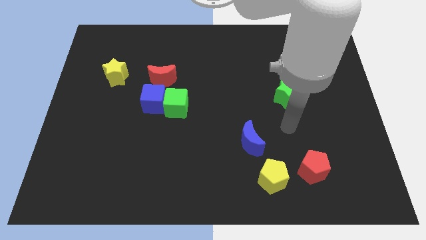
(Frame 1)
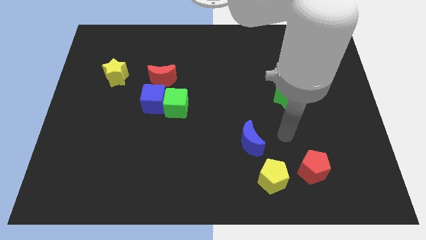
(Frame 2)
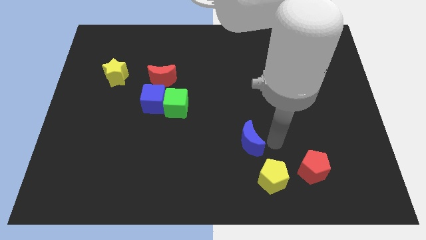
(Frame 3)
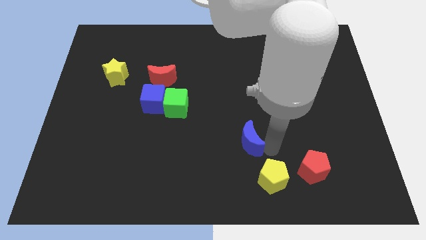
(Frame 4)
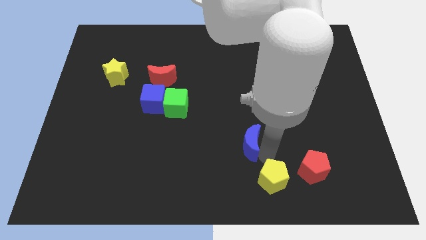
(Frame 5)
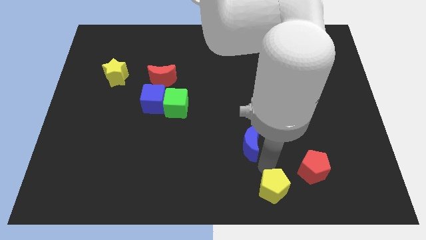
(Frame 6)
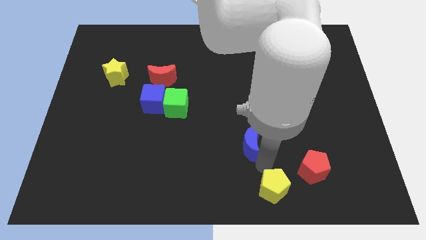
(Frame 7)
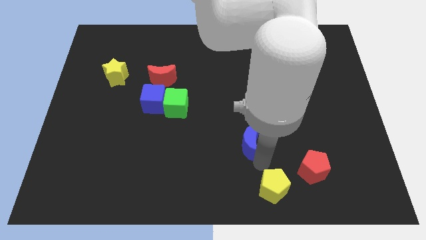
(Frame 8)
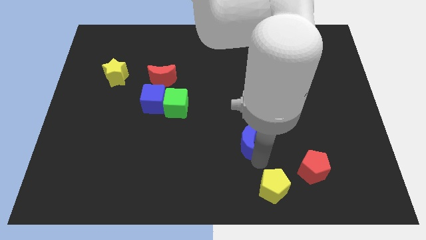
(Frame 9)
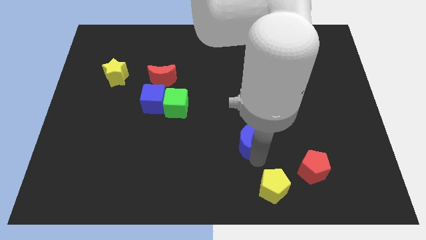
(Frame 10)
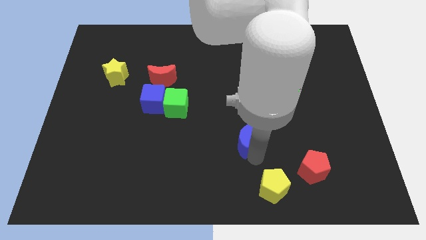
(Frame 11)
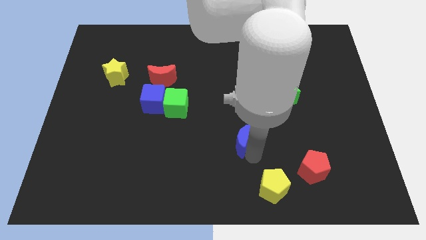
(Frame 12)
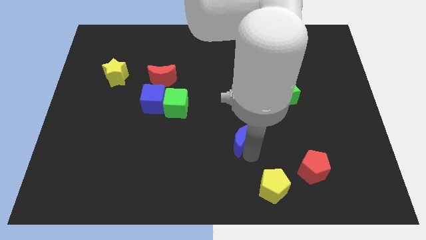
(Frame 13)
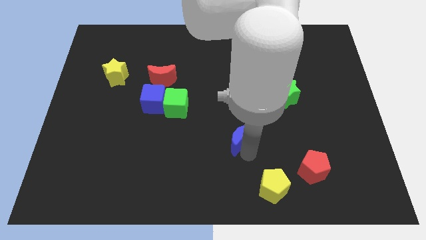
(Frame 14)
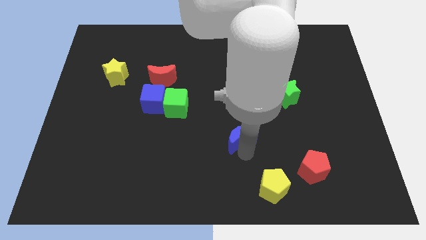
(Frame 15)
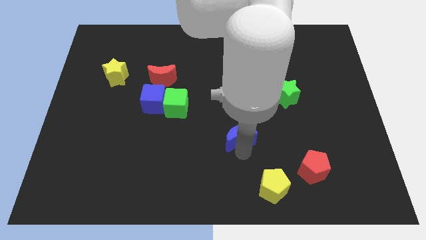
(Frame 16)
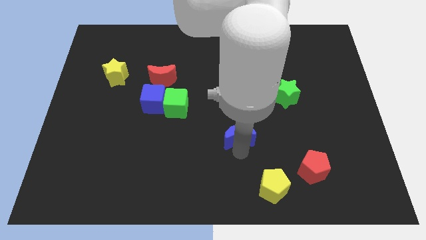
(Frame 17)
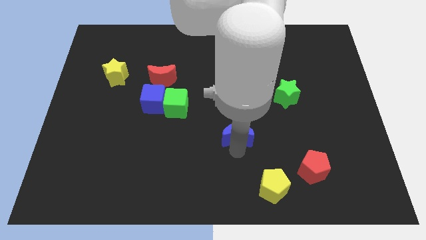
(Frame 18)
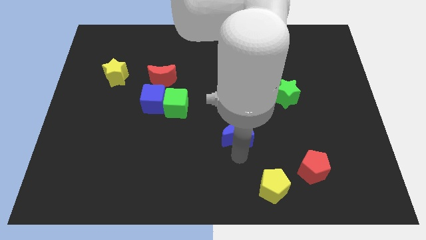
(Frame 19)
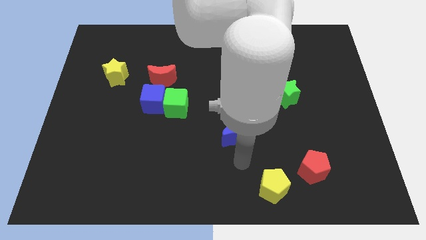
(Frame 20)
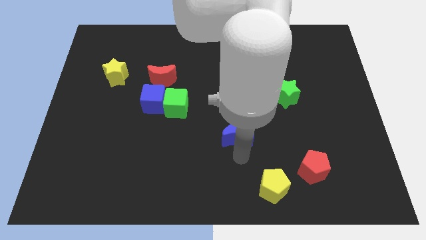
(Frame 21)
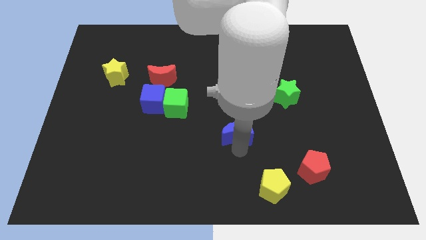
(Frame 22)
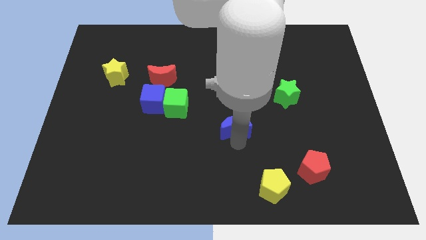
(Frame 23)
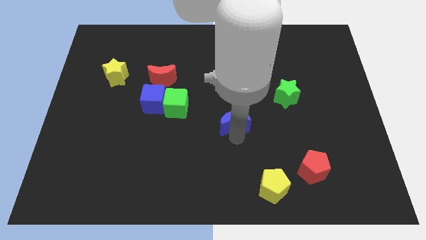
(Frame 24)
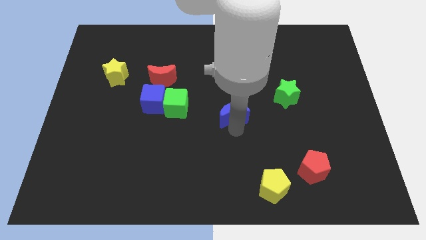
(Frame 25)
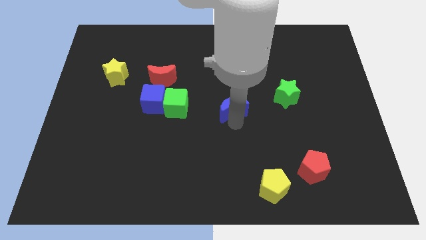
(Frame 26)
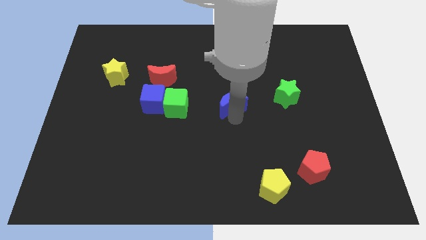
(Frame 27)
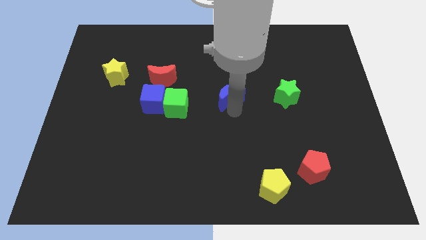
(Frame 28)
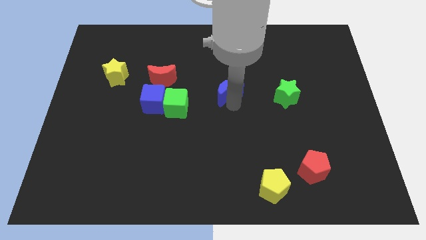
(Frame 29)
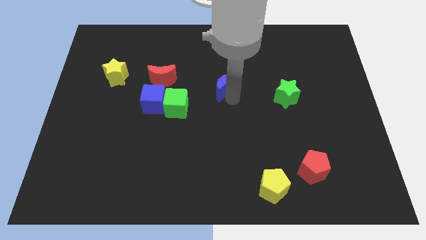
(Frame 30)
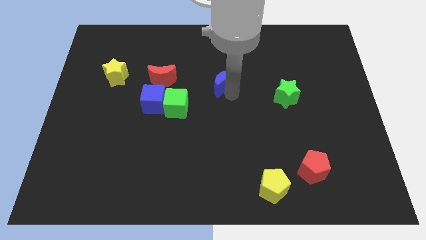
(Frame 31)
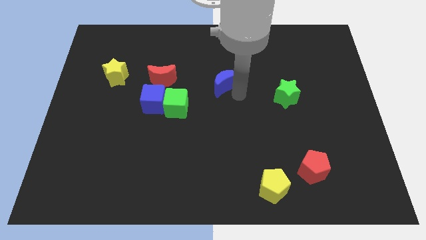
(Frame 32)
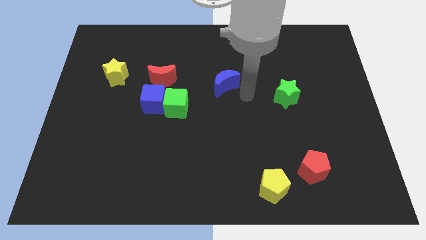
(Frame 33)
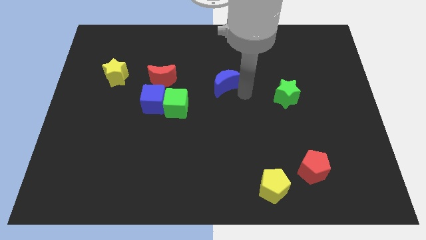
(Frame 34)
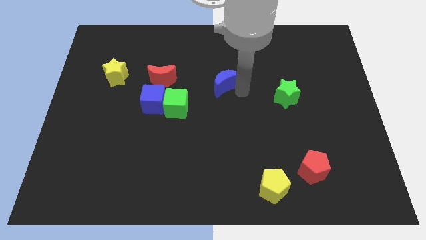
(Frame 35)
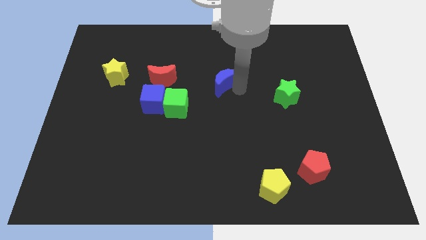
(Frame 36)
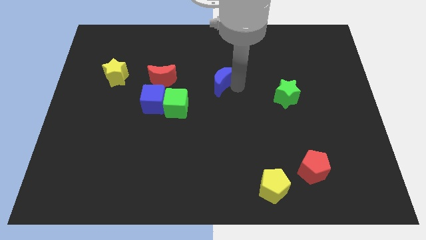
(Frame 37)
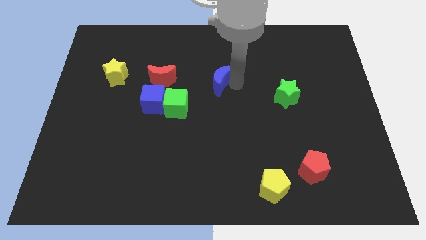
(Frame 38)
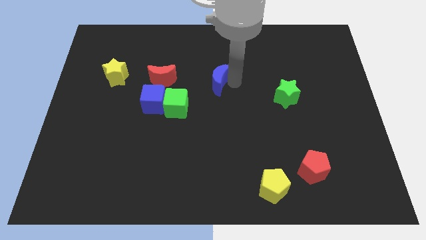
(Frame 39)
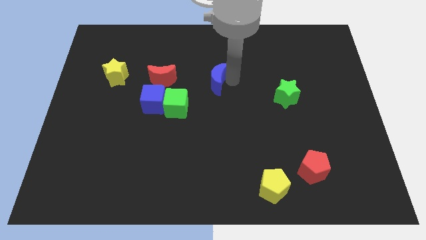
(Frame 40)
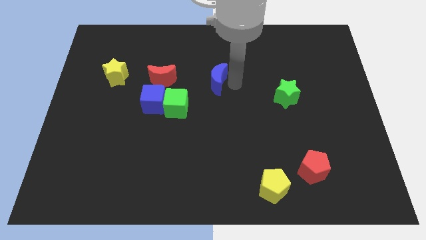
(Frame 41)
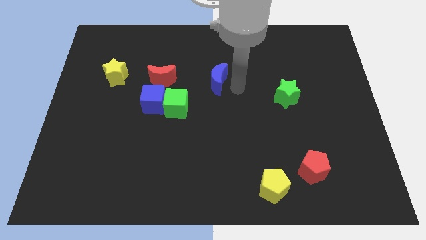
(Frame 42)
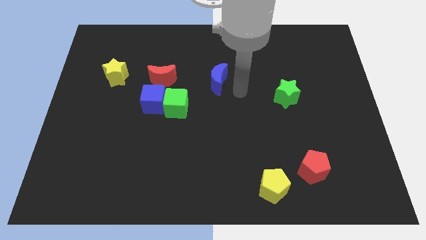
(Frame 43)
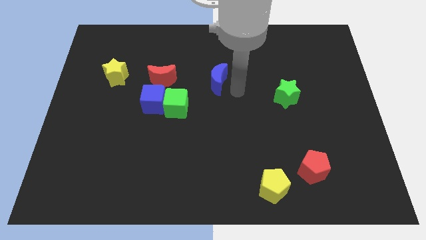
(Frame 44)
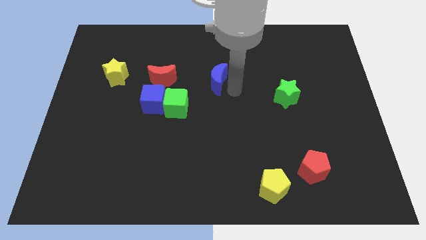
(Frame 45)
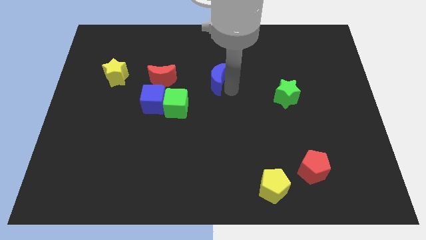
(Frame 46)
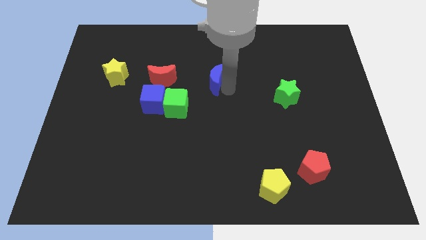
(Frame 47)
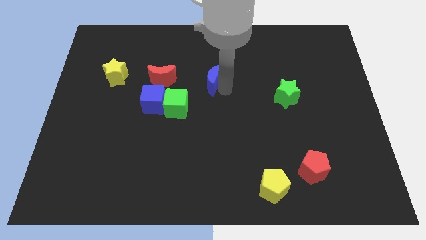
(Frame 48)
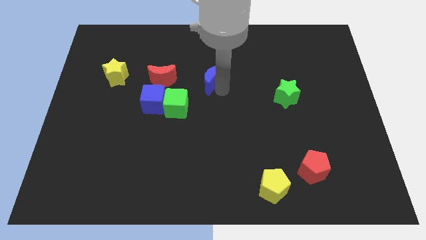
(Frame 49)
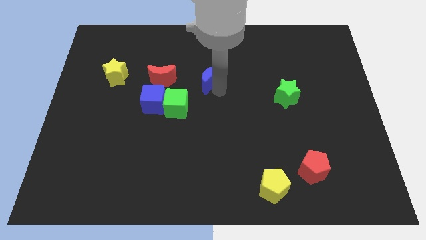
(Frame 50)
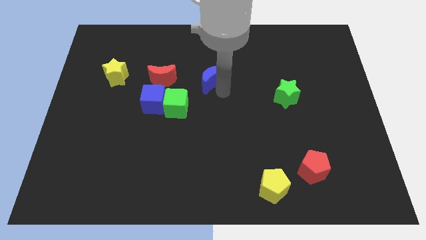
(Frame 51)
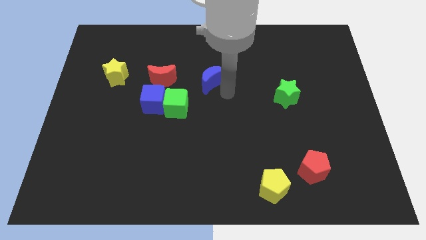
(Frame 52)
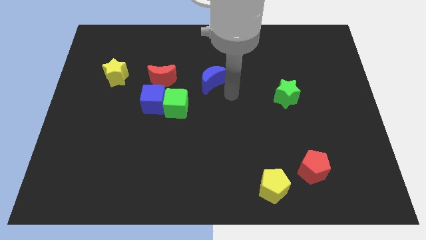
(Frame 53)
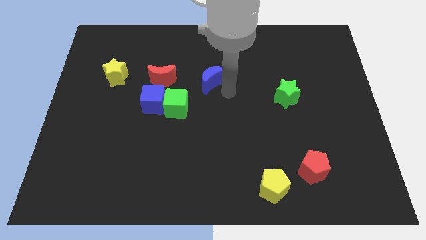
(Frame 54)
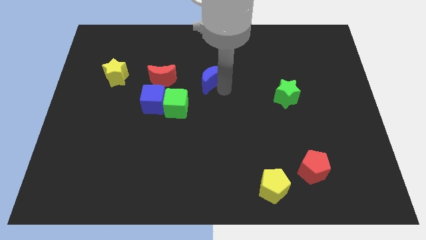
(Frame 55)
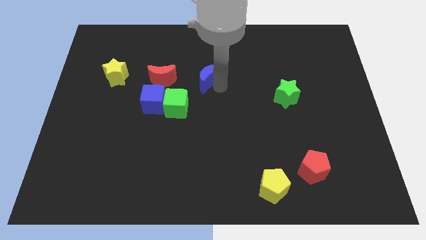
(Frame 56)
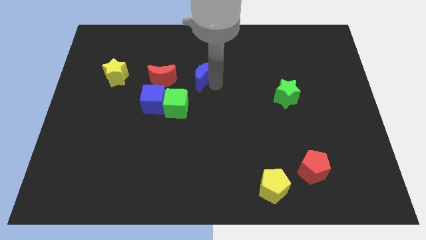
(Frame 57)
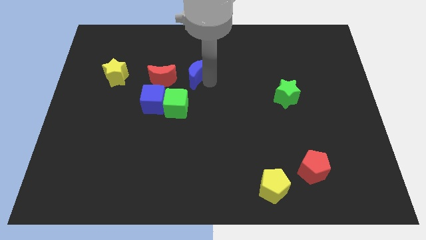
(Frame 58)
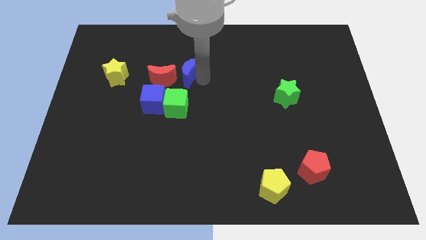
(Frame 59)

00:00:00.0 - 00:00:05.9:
put the blue moon diagonally up and to the right of the red moon

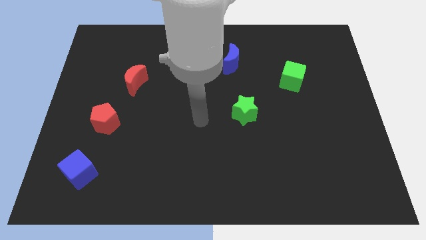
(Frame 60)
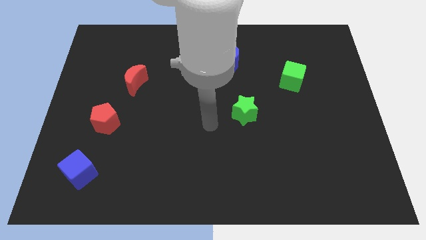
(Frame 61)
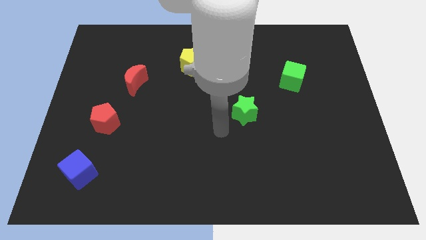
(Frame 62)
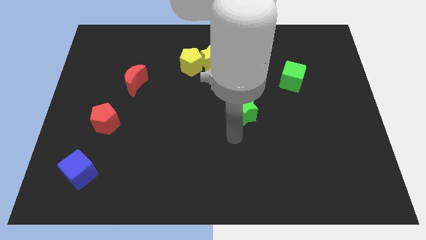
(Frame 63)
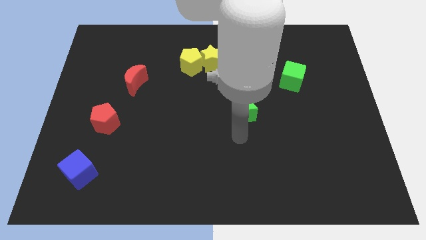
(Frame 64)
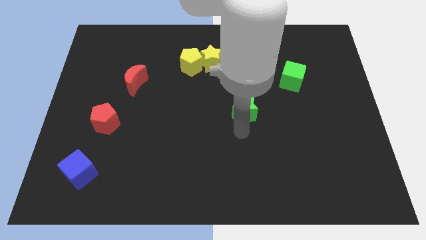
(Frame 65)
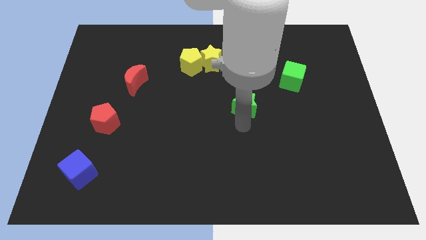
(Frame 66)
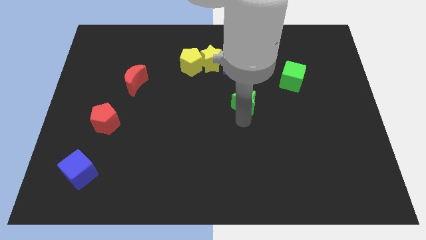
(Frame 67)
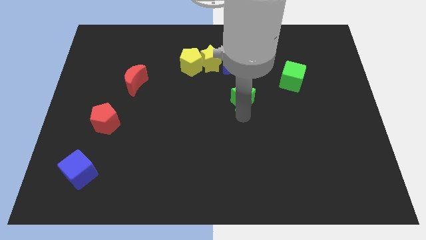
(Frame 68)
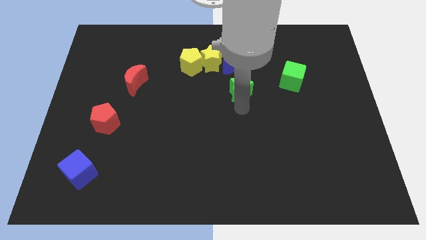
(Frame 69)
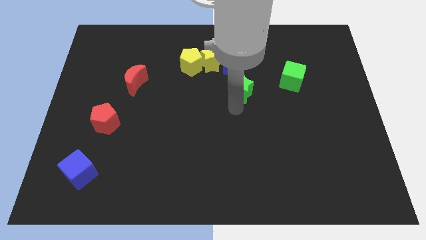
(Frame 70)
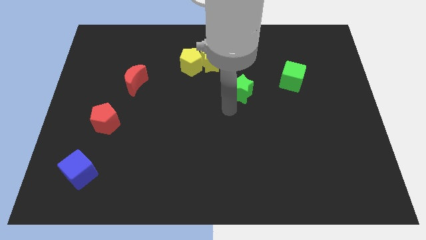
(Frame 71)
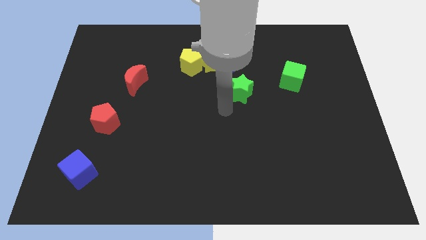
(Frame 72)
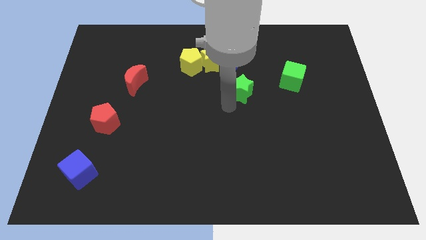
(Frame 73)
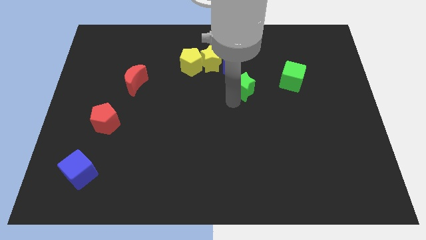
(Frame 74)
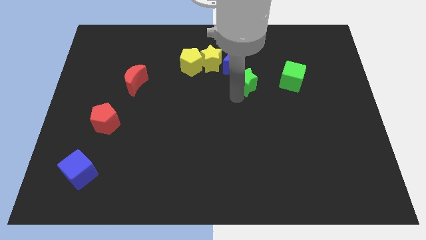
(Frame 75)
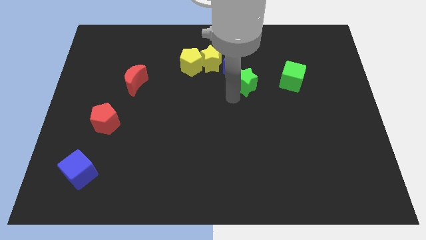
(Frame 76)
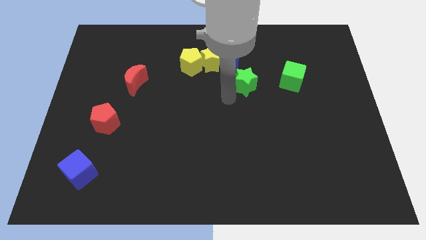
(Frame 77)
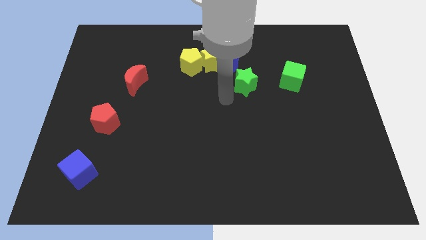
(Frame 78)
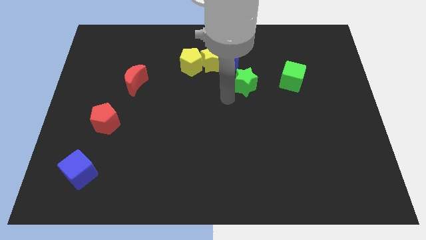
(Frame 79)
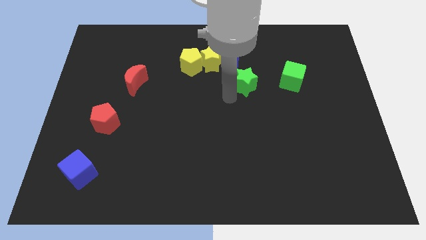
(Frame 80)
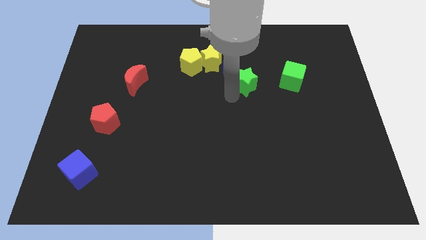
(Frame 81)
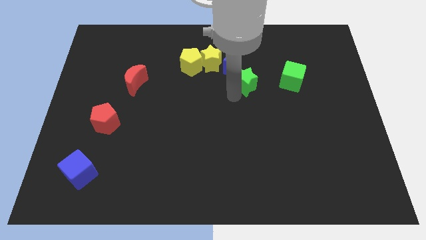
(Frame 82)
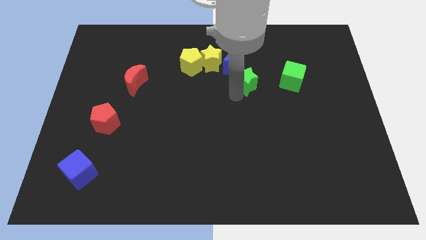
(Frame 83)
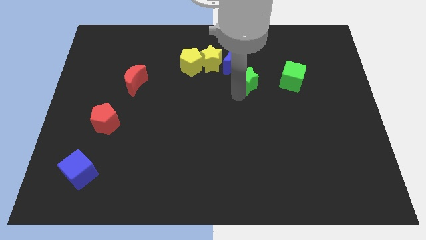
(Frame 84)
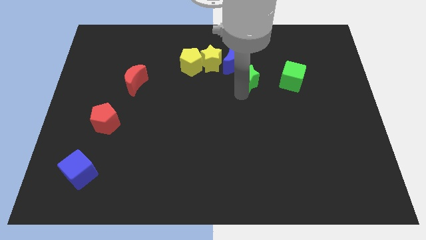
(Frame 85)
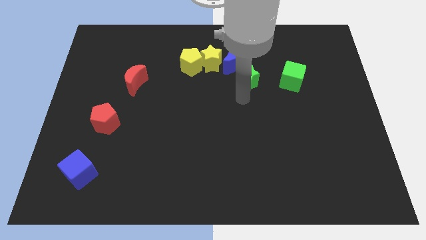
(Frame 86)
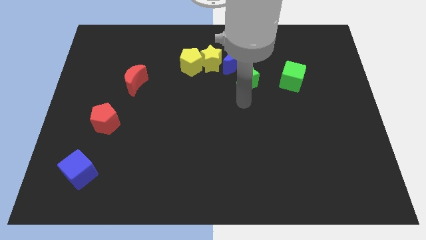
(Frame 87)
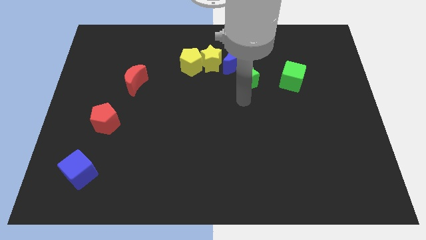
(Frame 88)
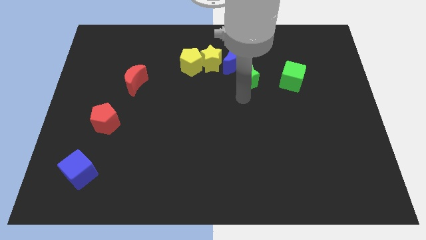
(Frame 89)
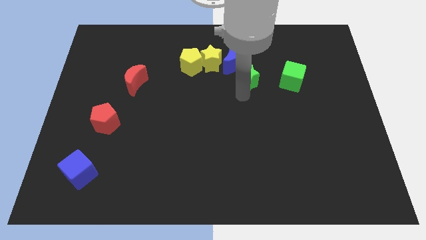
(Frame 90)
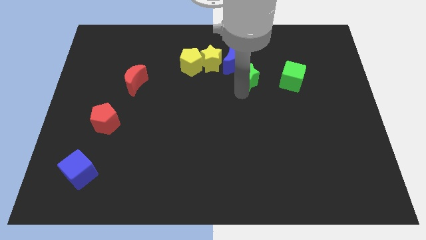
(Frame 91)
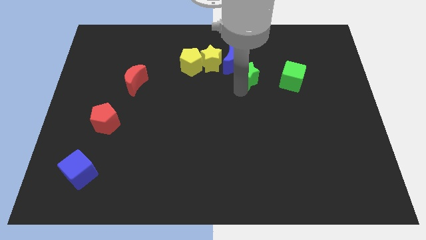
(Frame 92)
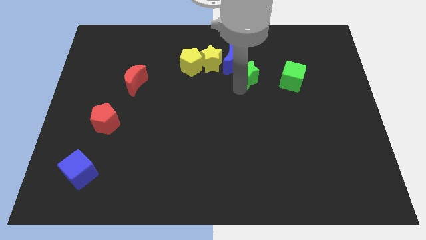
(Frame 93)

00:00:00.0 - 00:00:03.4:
slide the green star just right of the yellow pentagon
